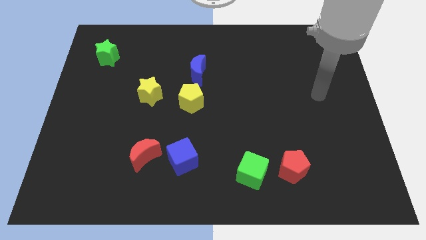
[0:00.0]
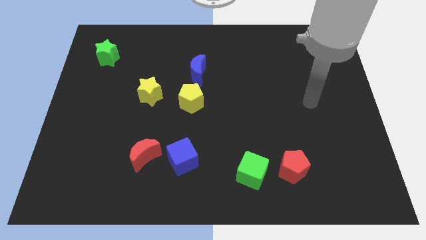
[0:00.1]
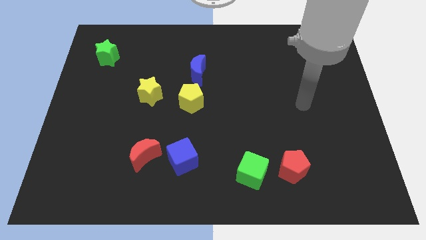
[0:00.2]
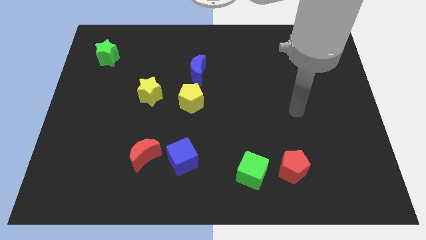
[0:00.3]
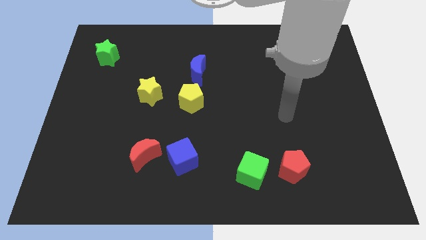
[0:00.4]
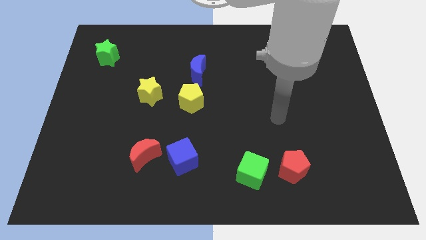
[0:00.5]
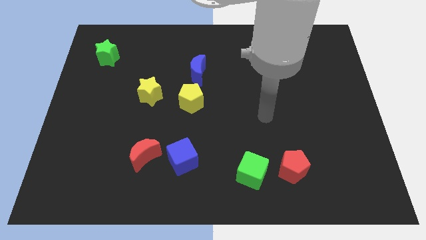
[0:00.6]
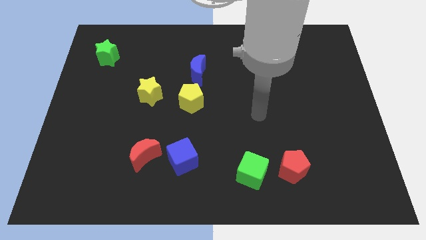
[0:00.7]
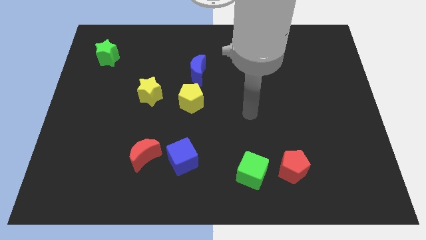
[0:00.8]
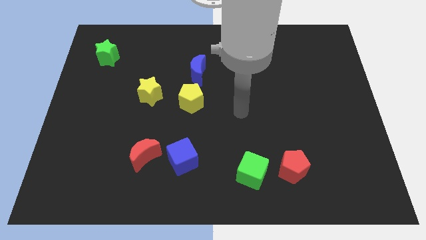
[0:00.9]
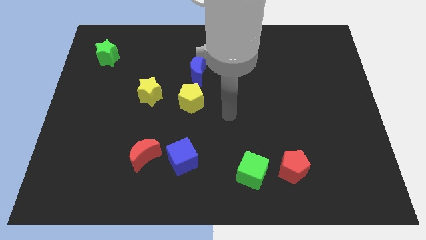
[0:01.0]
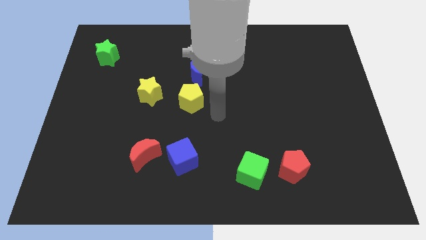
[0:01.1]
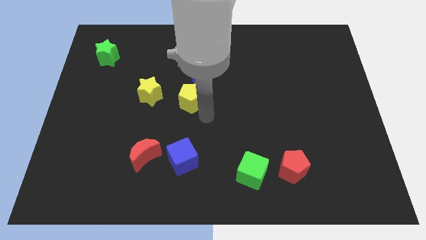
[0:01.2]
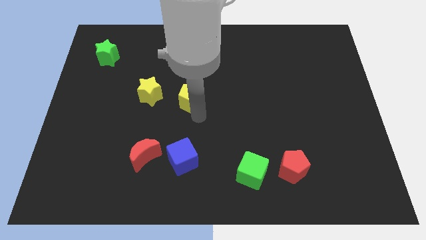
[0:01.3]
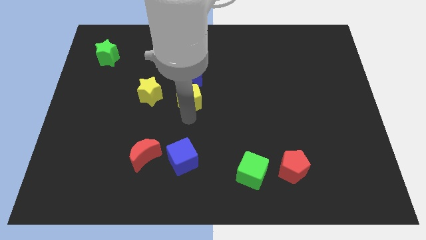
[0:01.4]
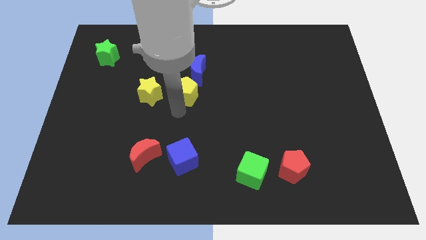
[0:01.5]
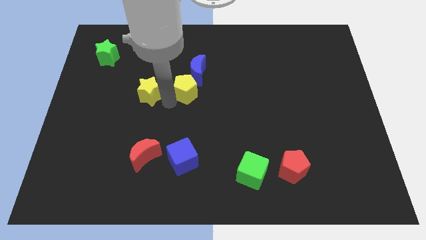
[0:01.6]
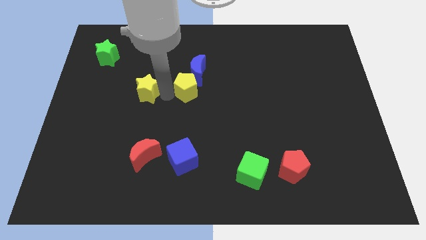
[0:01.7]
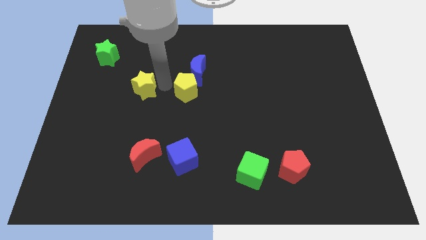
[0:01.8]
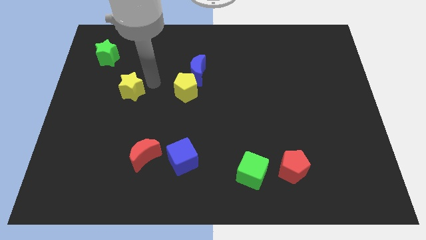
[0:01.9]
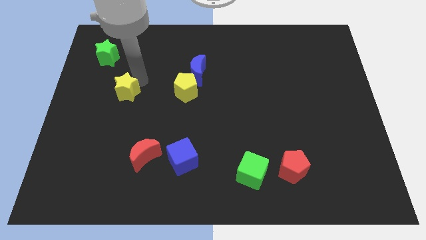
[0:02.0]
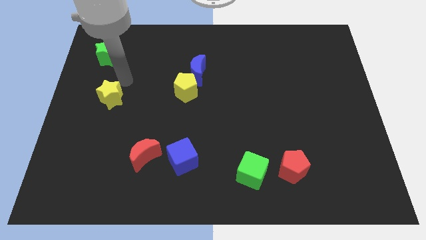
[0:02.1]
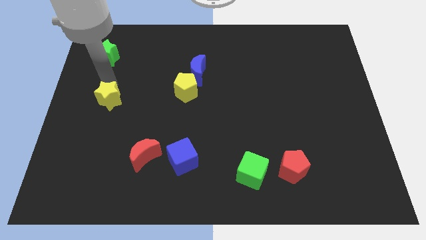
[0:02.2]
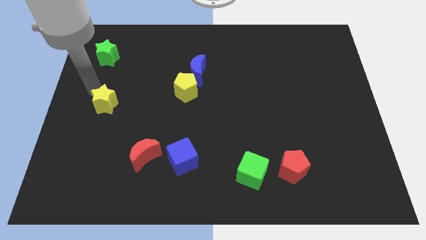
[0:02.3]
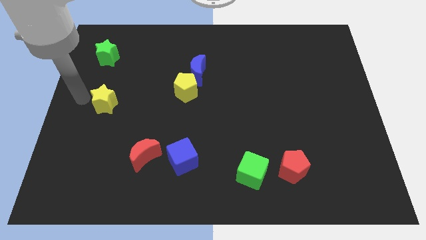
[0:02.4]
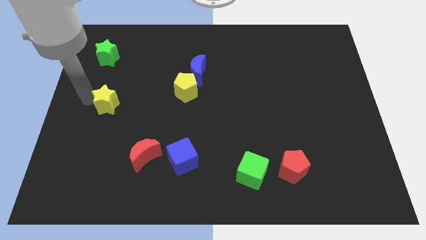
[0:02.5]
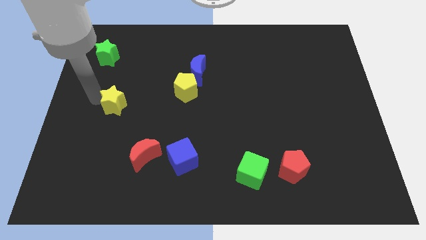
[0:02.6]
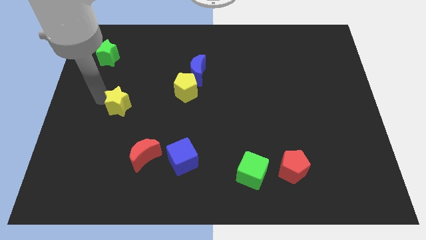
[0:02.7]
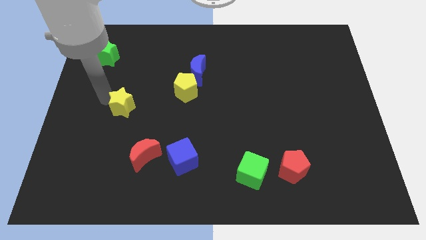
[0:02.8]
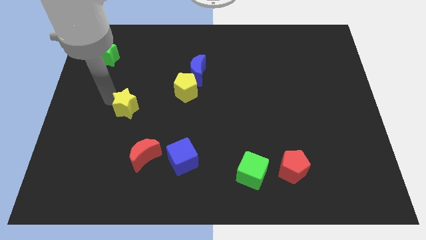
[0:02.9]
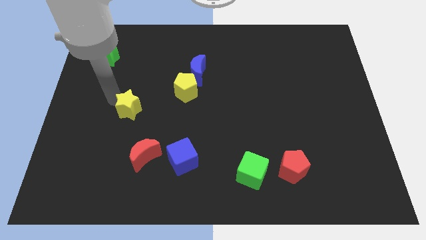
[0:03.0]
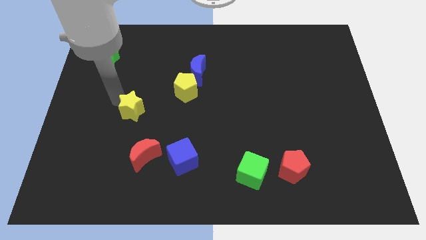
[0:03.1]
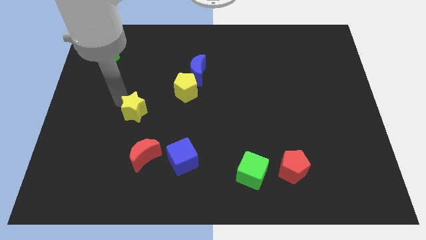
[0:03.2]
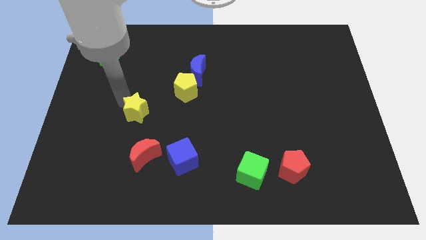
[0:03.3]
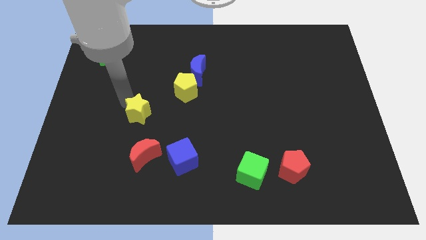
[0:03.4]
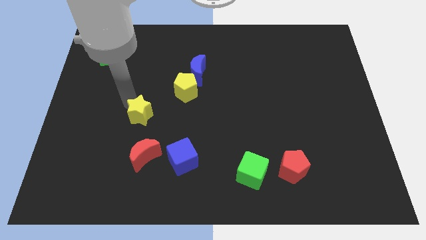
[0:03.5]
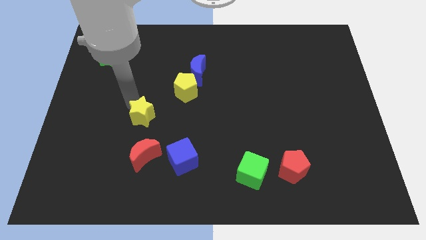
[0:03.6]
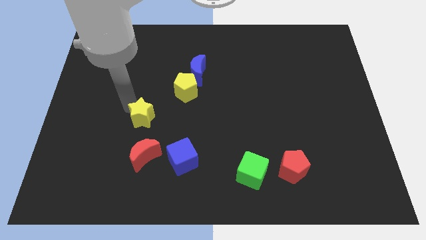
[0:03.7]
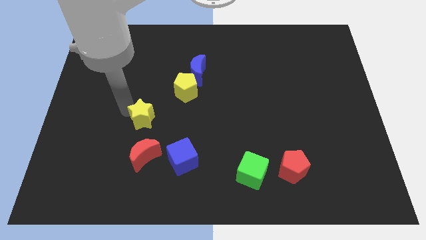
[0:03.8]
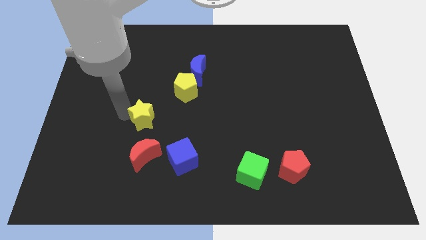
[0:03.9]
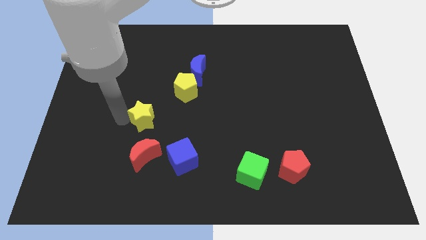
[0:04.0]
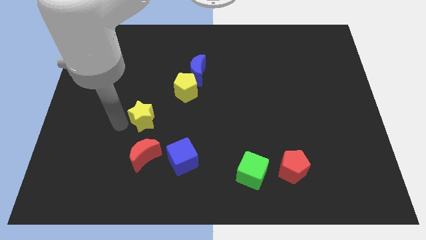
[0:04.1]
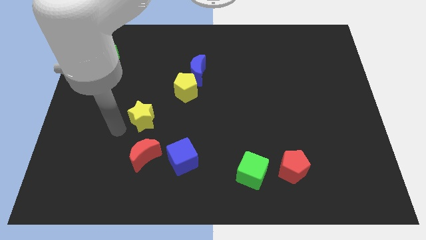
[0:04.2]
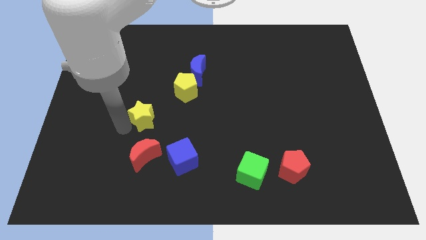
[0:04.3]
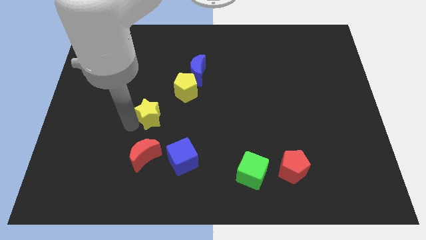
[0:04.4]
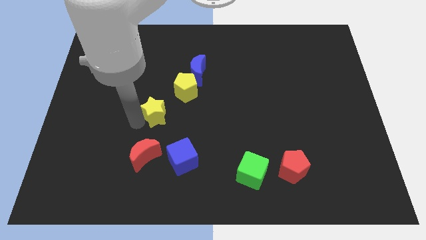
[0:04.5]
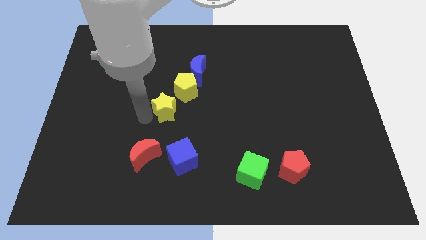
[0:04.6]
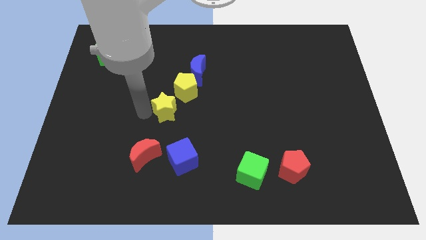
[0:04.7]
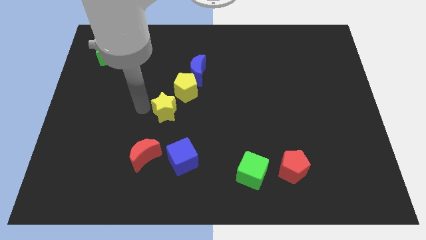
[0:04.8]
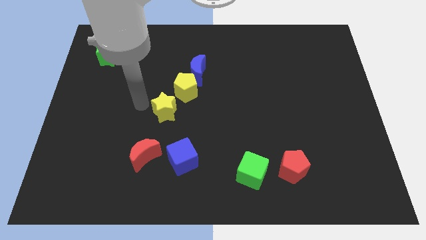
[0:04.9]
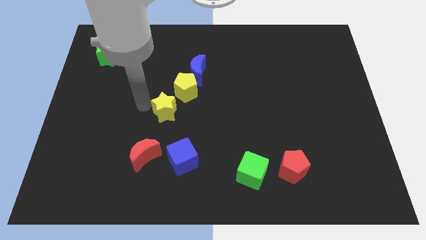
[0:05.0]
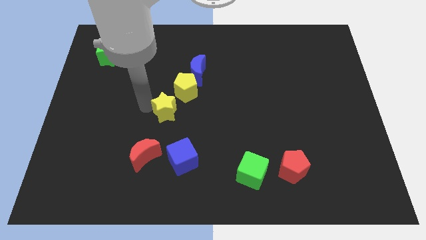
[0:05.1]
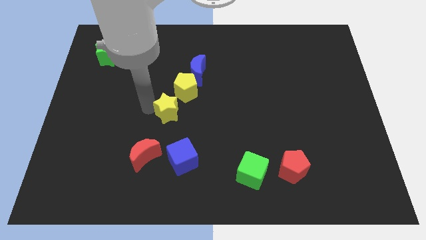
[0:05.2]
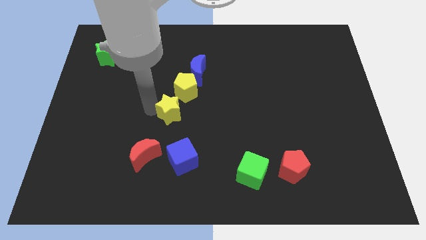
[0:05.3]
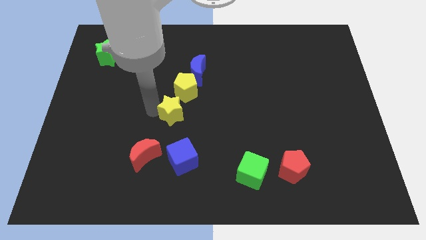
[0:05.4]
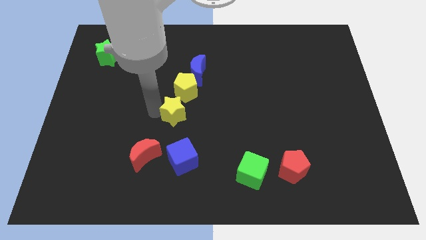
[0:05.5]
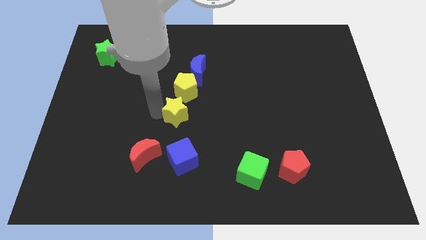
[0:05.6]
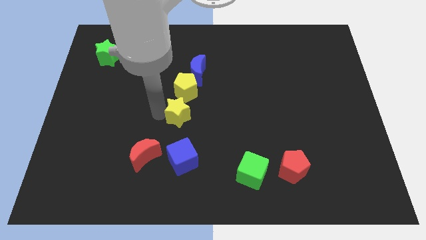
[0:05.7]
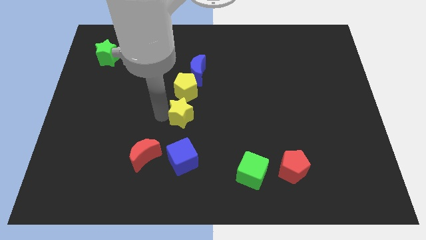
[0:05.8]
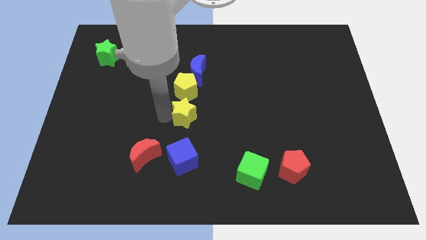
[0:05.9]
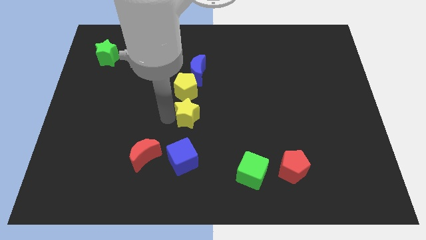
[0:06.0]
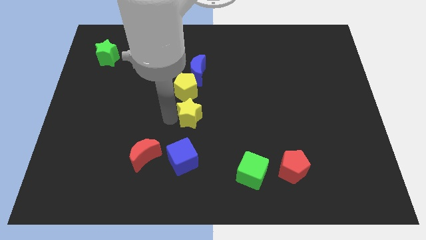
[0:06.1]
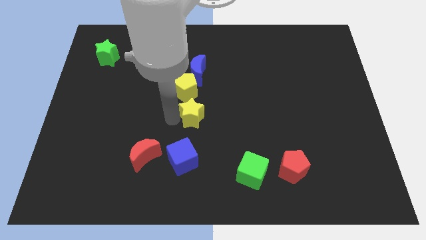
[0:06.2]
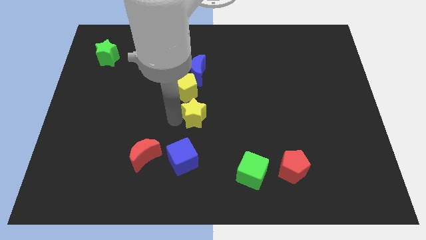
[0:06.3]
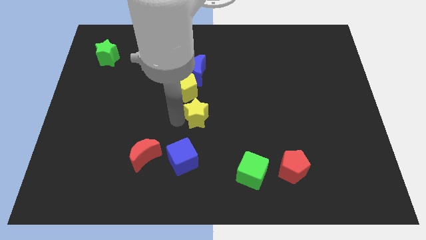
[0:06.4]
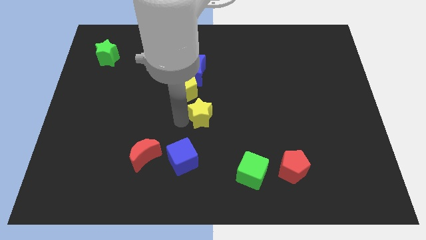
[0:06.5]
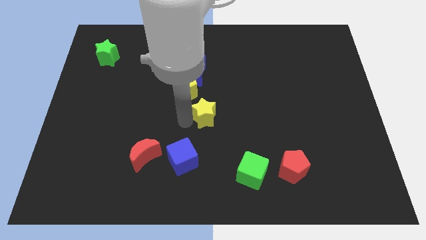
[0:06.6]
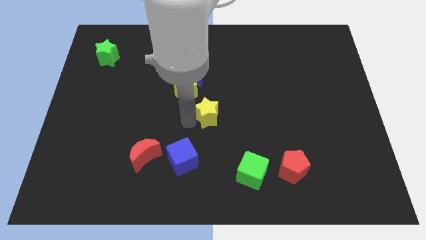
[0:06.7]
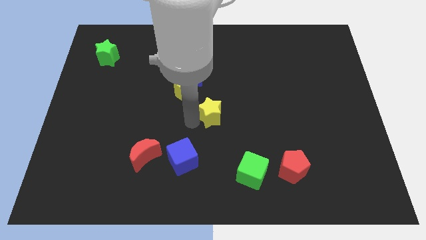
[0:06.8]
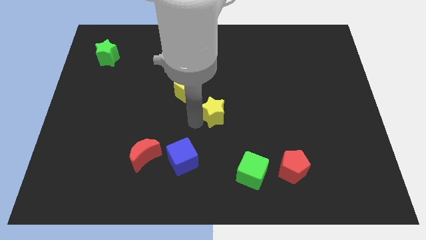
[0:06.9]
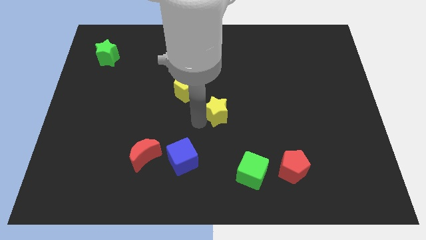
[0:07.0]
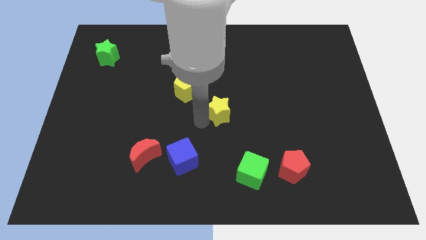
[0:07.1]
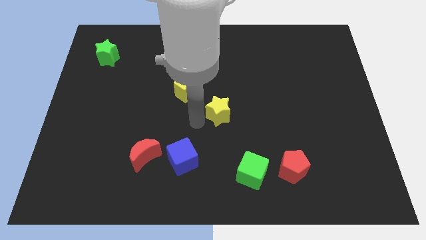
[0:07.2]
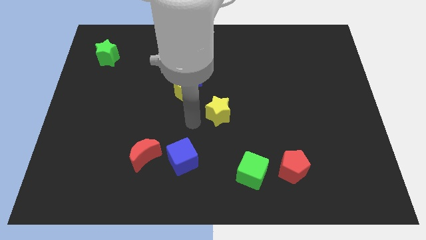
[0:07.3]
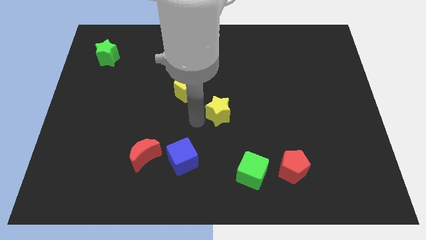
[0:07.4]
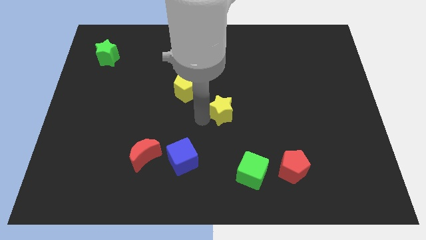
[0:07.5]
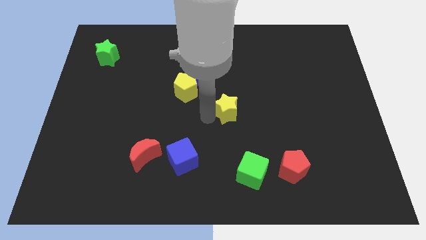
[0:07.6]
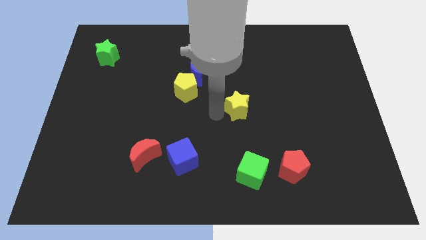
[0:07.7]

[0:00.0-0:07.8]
slide the yellow star right

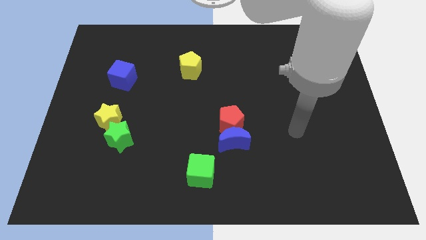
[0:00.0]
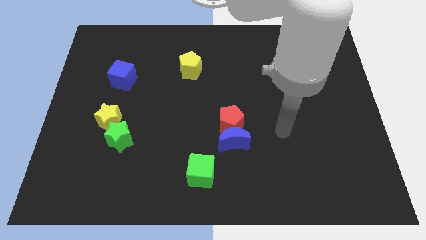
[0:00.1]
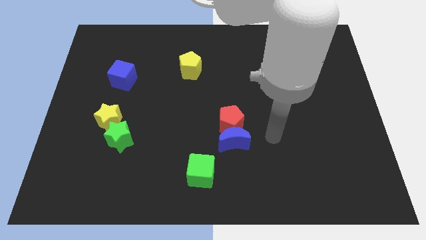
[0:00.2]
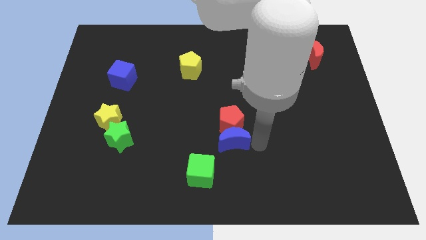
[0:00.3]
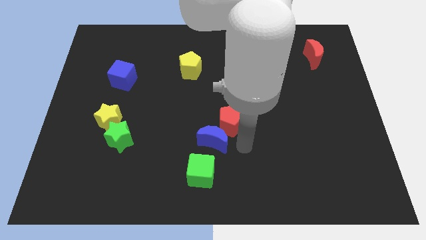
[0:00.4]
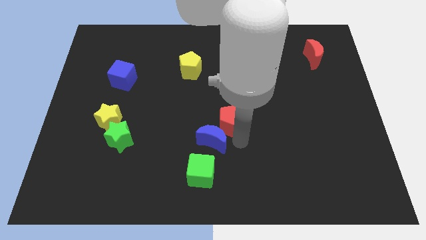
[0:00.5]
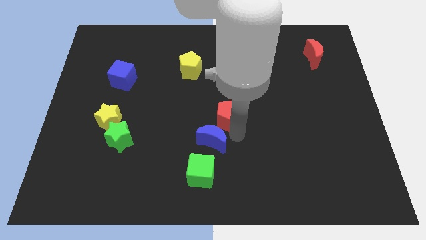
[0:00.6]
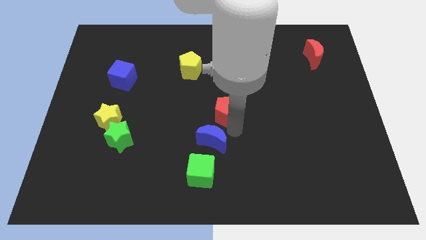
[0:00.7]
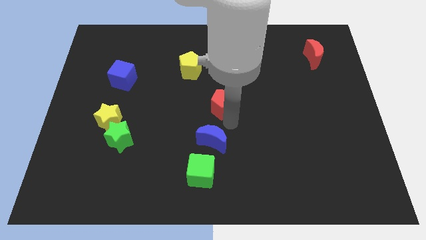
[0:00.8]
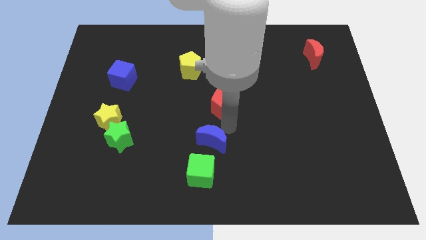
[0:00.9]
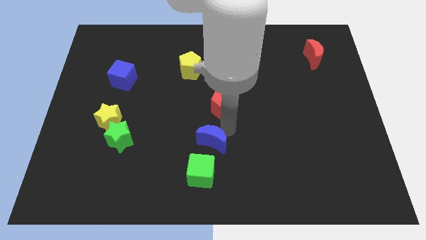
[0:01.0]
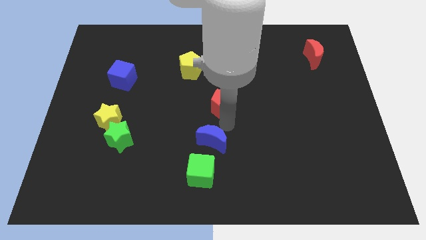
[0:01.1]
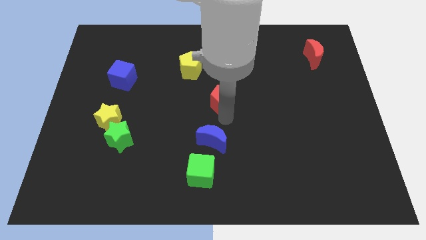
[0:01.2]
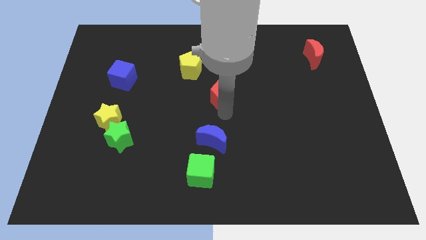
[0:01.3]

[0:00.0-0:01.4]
slide the red pentagon up a little
